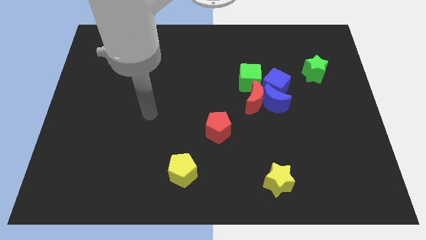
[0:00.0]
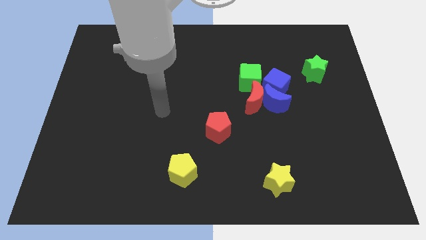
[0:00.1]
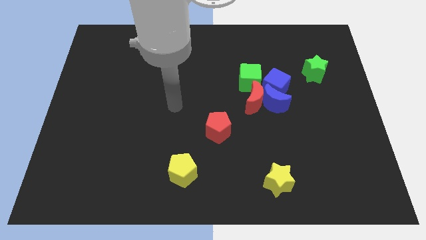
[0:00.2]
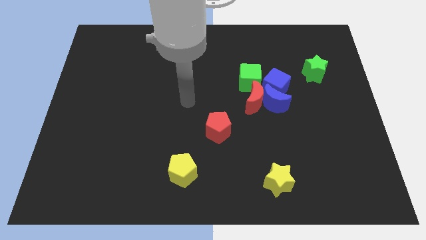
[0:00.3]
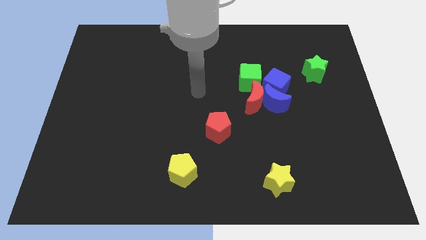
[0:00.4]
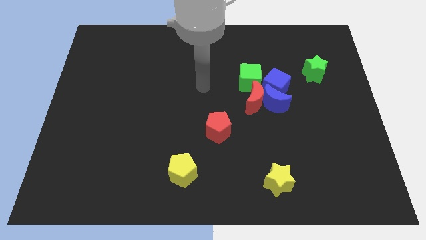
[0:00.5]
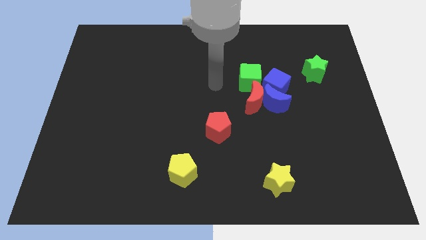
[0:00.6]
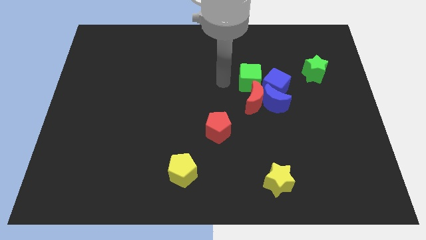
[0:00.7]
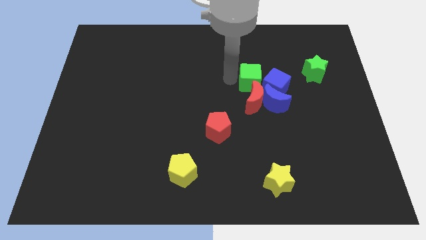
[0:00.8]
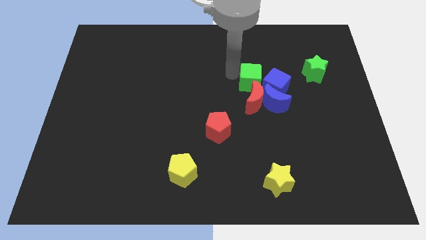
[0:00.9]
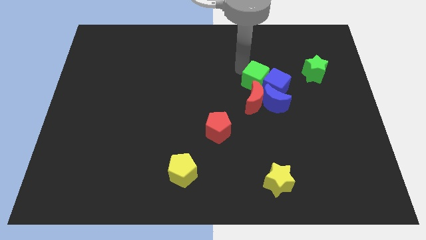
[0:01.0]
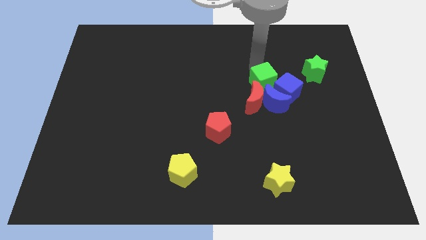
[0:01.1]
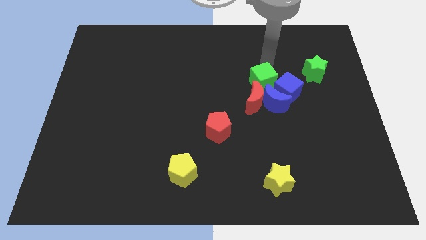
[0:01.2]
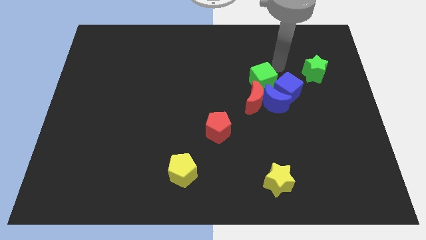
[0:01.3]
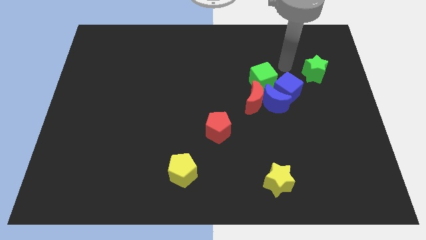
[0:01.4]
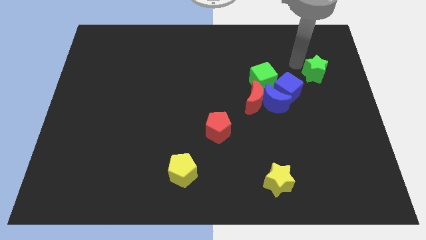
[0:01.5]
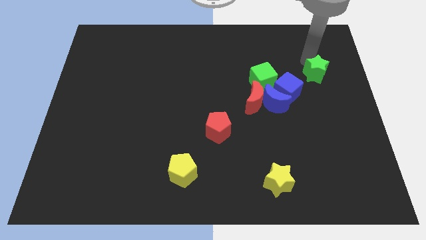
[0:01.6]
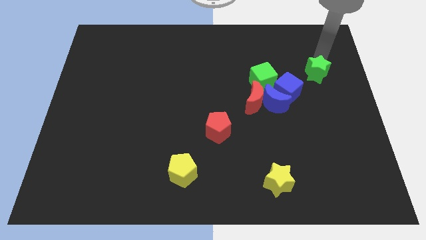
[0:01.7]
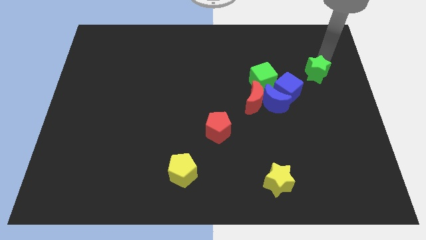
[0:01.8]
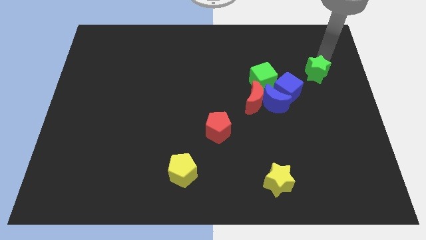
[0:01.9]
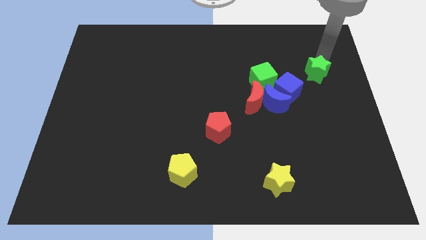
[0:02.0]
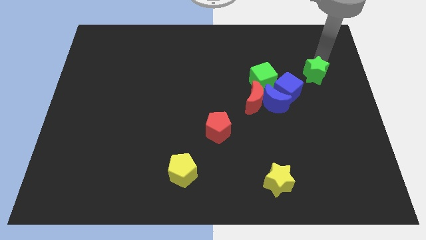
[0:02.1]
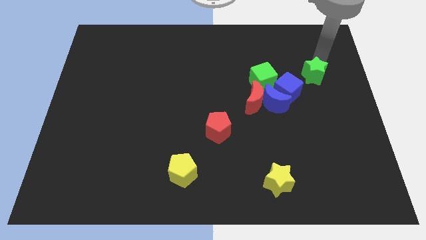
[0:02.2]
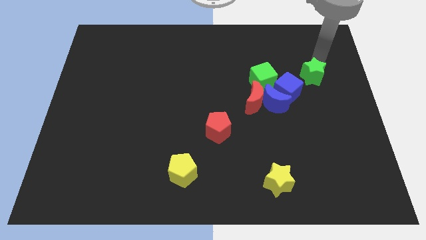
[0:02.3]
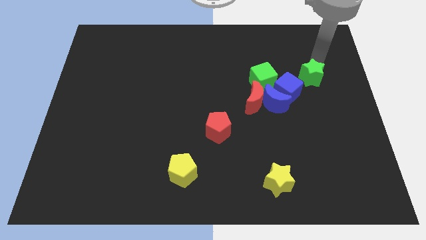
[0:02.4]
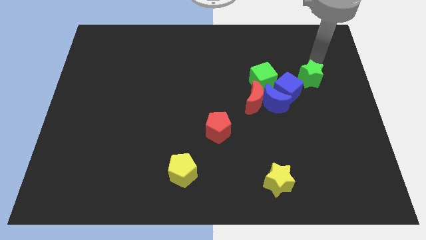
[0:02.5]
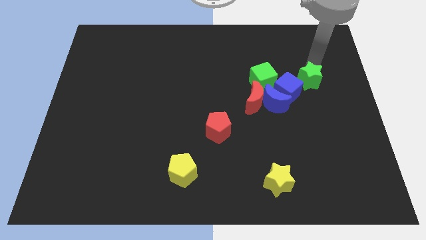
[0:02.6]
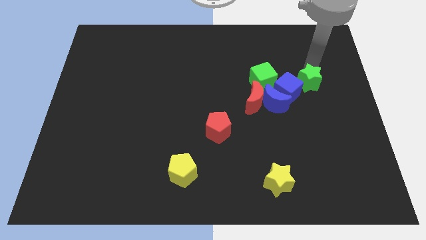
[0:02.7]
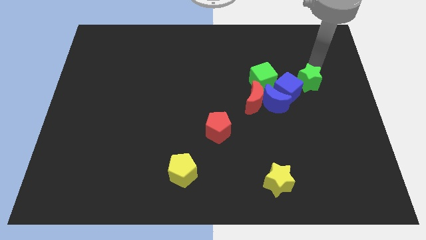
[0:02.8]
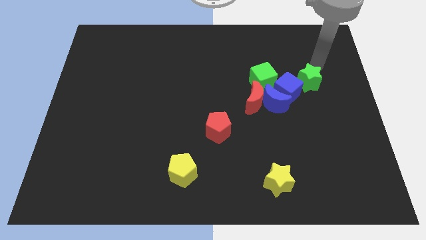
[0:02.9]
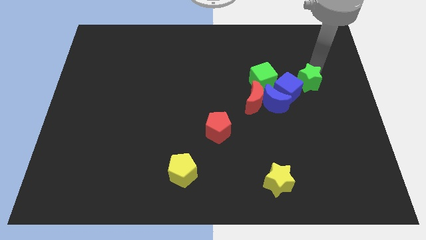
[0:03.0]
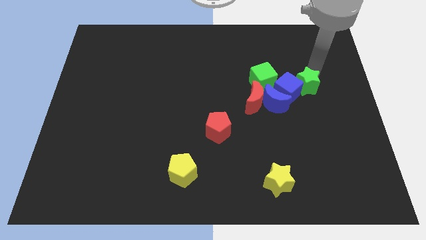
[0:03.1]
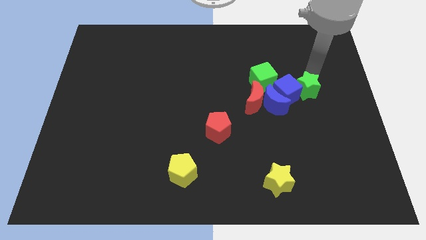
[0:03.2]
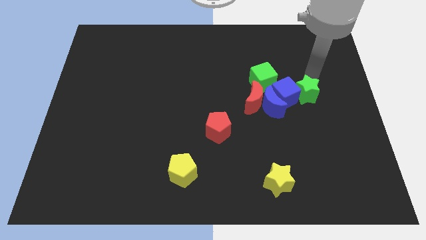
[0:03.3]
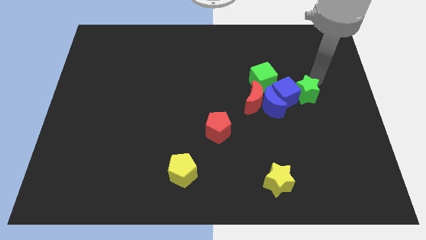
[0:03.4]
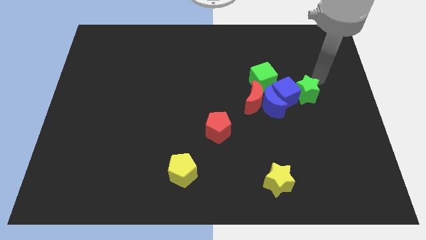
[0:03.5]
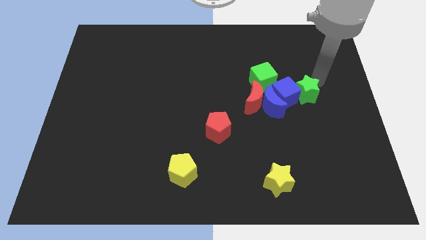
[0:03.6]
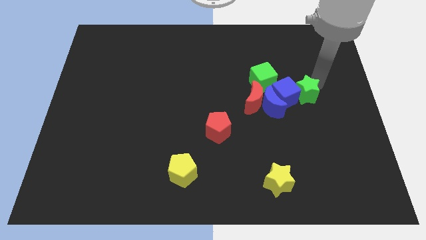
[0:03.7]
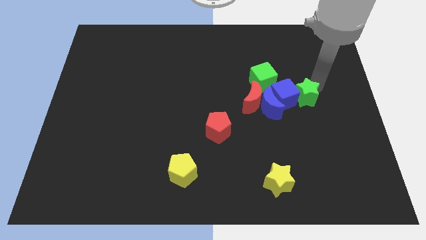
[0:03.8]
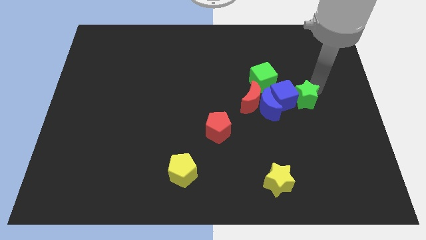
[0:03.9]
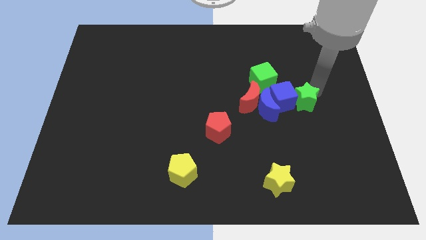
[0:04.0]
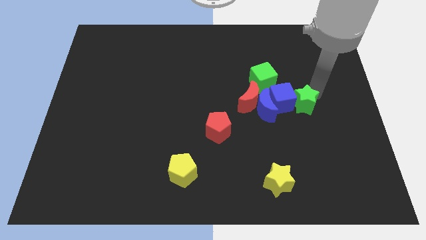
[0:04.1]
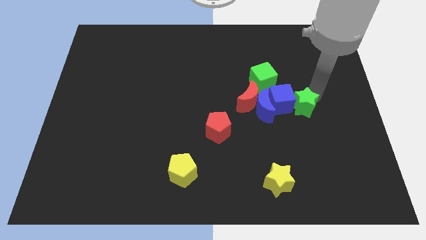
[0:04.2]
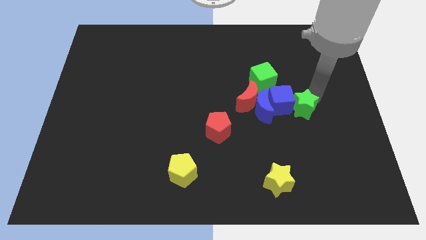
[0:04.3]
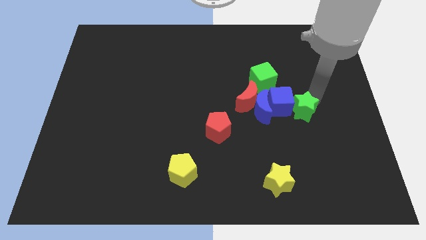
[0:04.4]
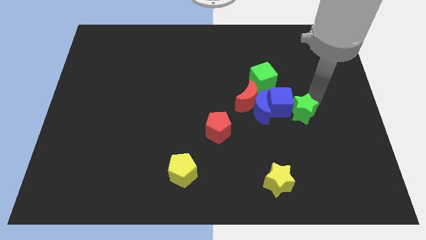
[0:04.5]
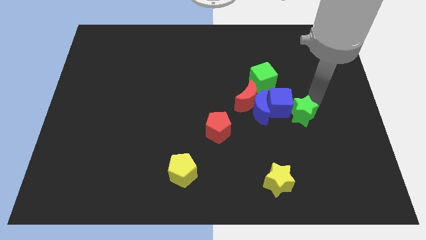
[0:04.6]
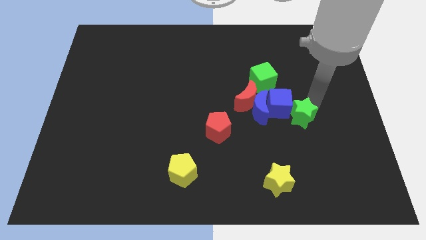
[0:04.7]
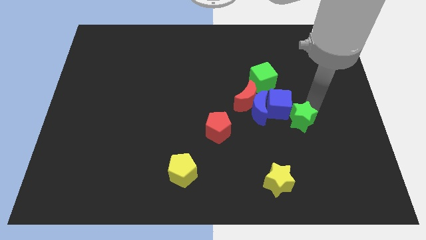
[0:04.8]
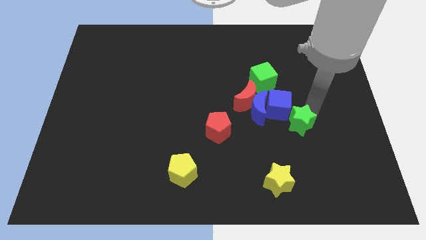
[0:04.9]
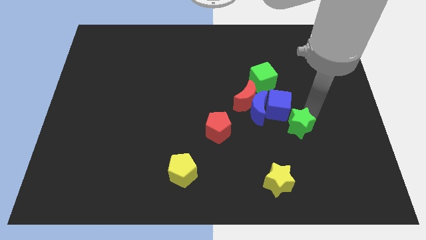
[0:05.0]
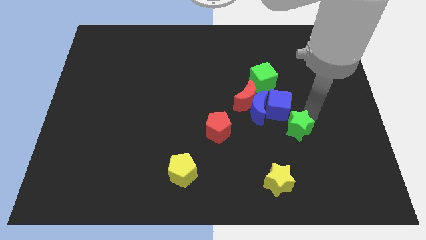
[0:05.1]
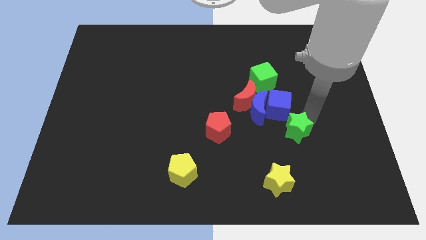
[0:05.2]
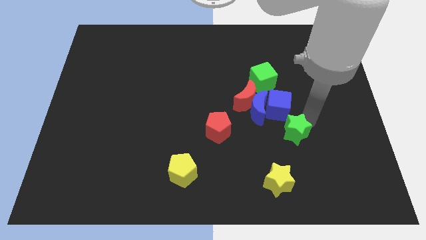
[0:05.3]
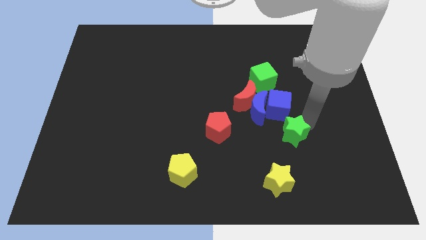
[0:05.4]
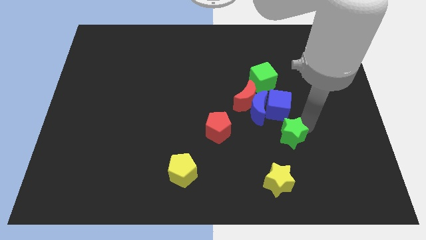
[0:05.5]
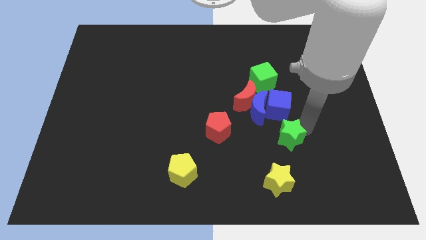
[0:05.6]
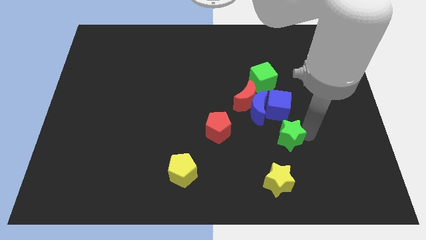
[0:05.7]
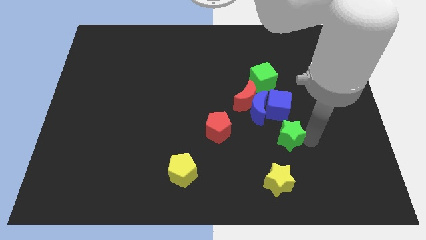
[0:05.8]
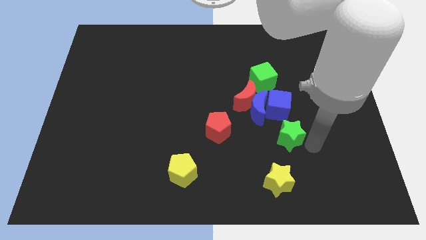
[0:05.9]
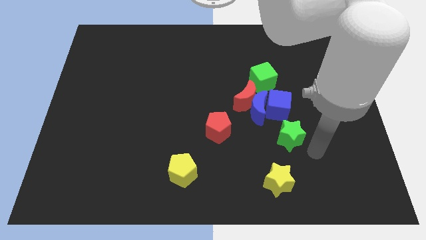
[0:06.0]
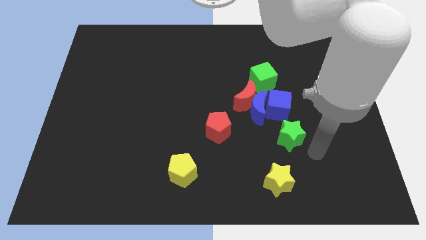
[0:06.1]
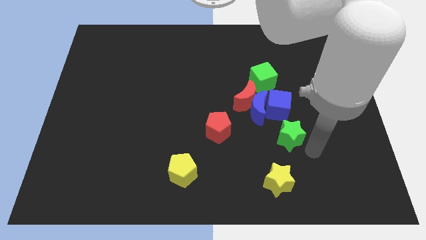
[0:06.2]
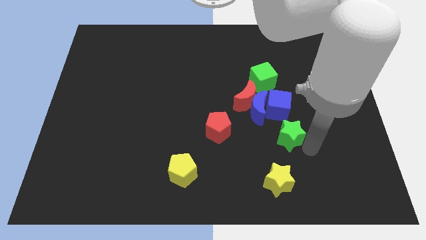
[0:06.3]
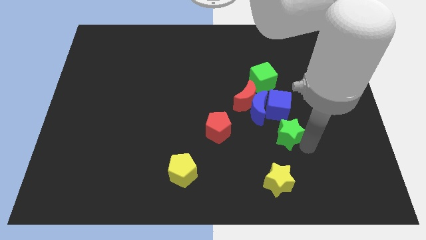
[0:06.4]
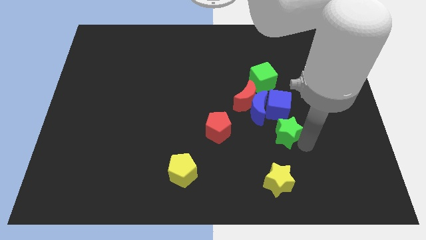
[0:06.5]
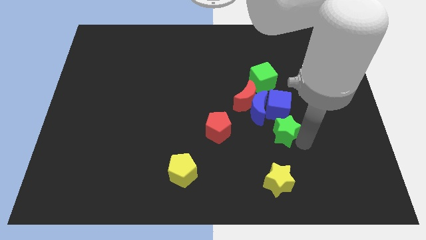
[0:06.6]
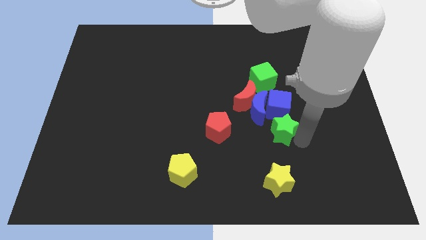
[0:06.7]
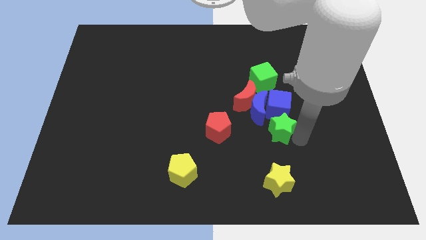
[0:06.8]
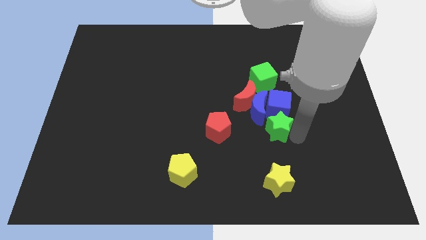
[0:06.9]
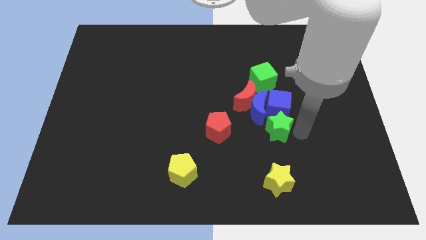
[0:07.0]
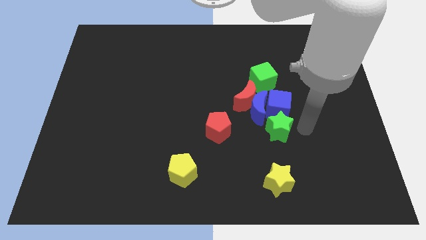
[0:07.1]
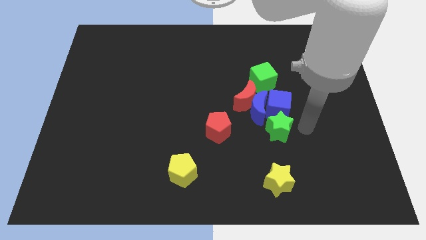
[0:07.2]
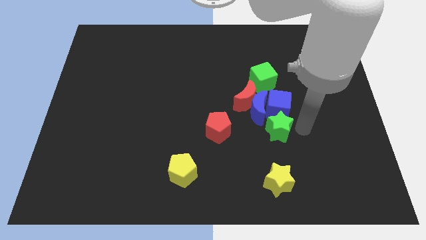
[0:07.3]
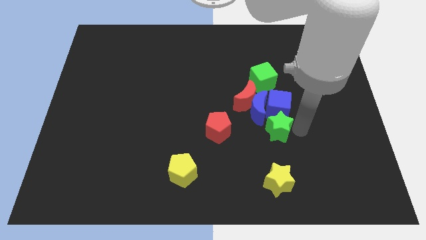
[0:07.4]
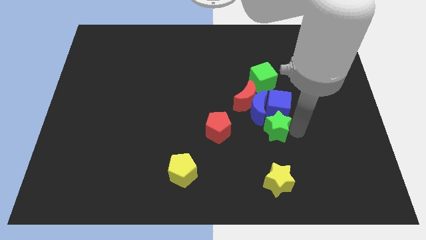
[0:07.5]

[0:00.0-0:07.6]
push the green star down and then to the left

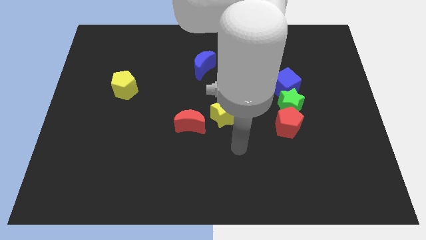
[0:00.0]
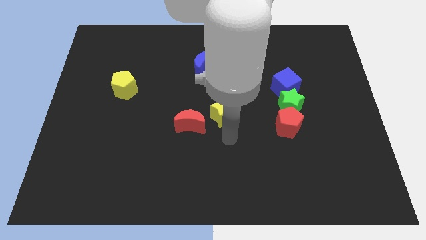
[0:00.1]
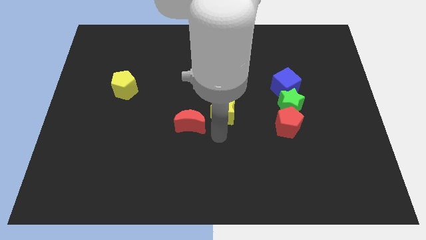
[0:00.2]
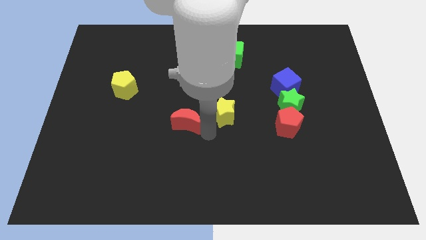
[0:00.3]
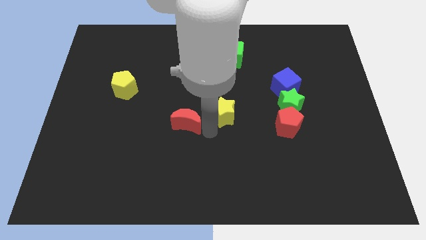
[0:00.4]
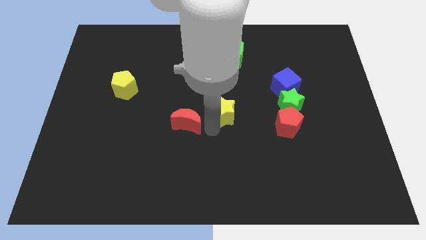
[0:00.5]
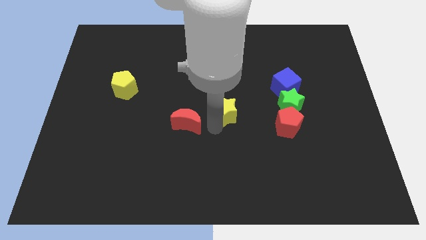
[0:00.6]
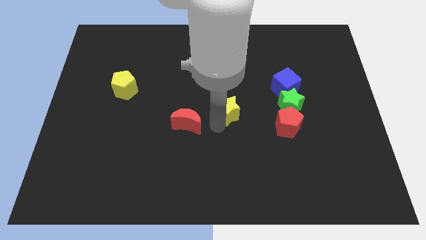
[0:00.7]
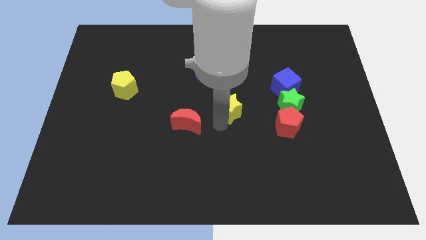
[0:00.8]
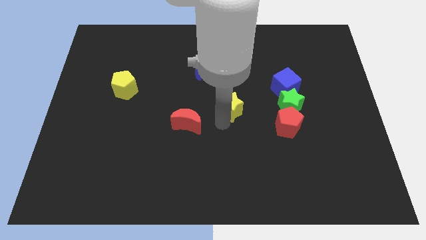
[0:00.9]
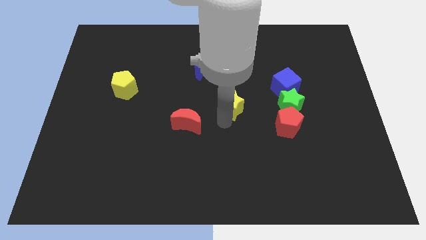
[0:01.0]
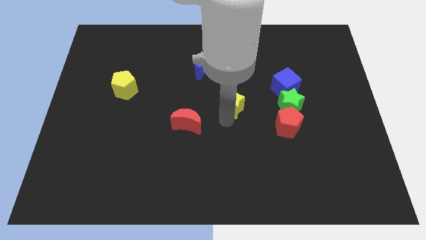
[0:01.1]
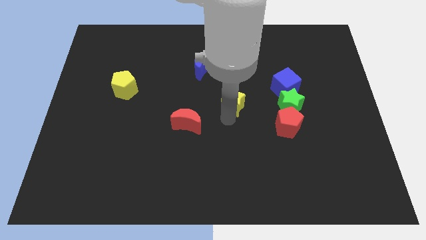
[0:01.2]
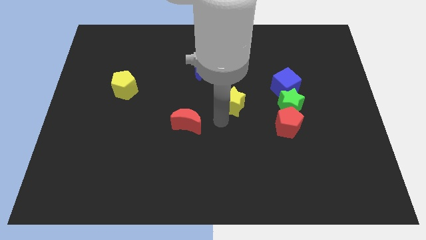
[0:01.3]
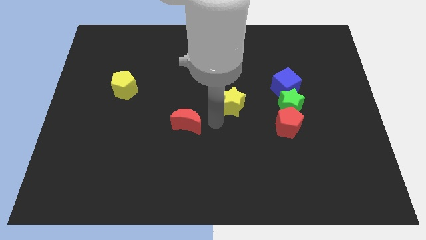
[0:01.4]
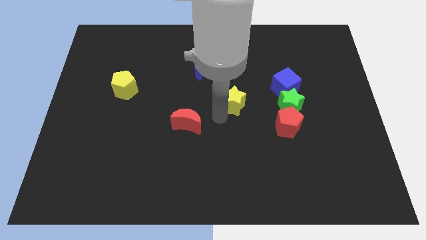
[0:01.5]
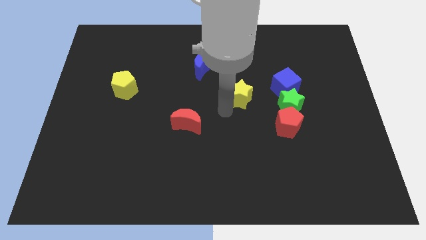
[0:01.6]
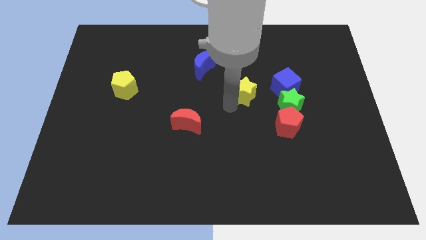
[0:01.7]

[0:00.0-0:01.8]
slightly move the yellow star diagonally up and to the right
